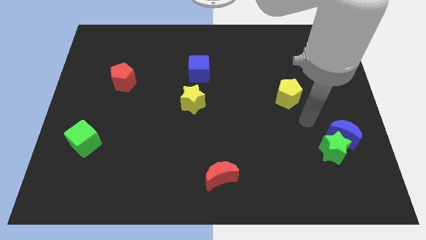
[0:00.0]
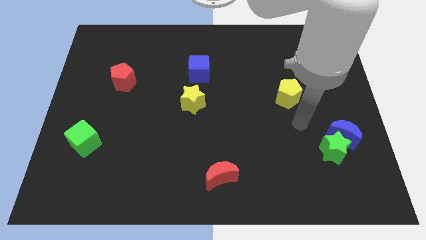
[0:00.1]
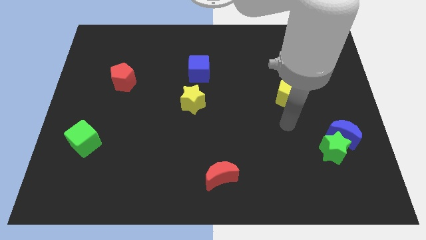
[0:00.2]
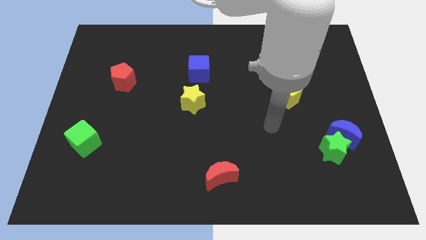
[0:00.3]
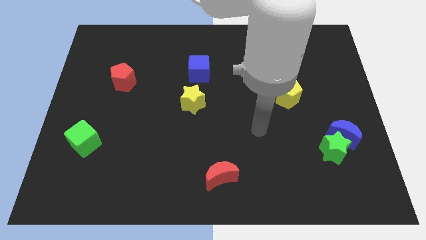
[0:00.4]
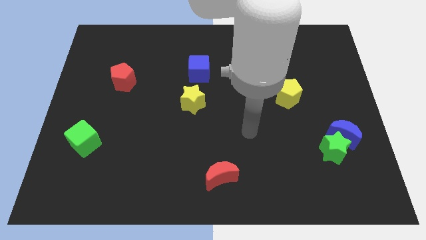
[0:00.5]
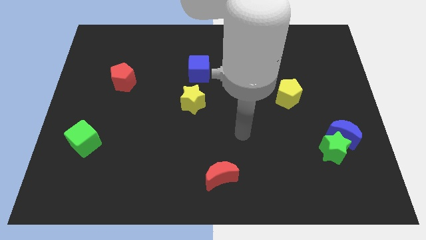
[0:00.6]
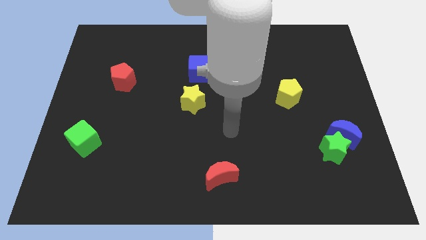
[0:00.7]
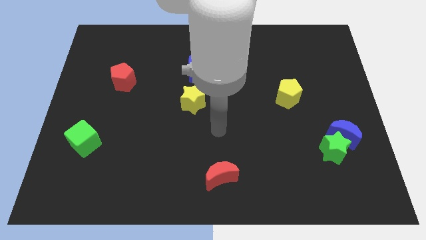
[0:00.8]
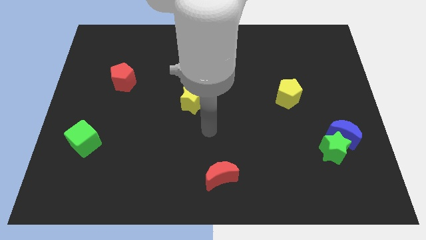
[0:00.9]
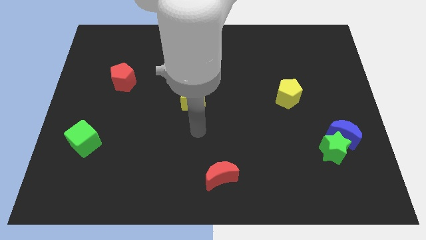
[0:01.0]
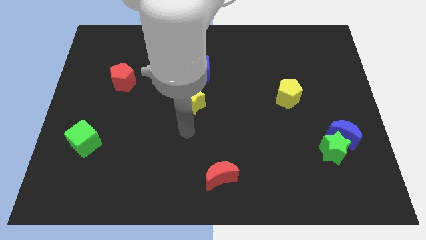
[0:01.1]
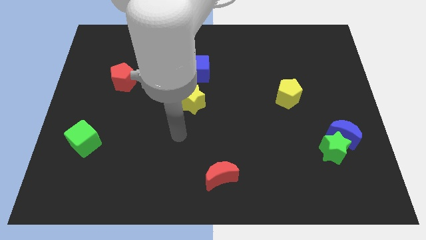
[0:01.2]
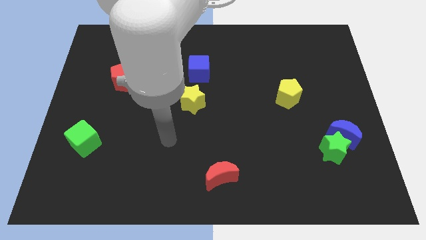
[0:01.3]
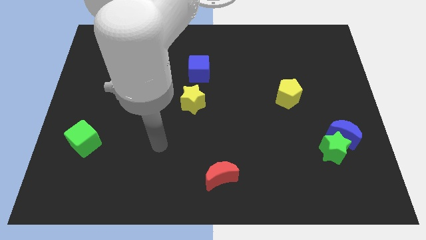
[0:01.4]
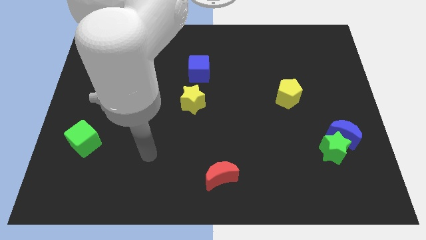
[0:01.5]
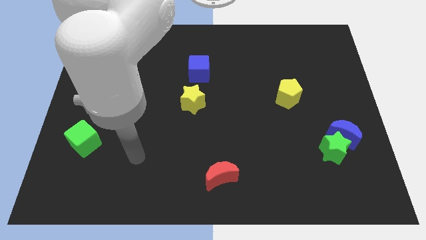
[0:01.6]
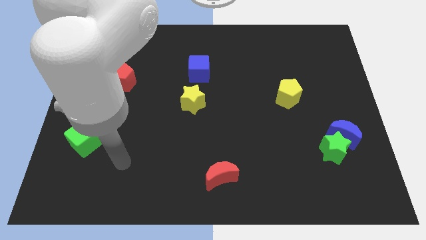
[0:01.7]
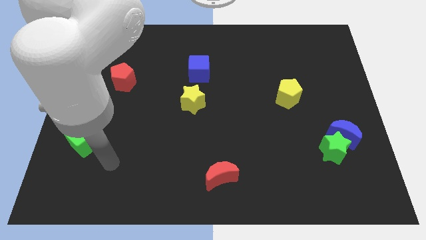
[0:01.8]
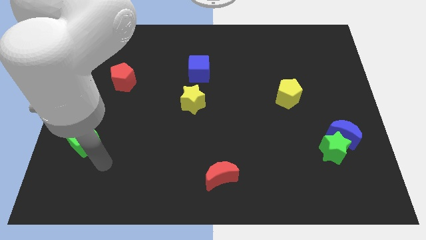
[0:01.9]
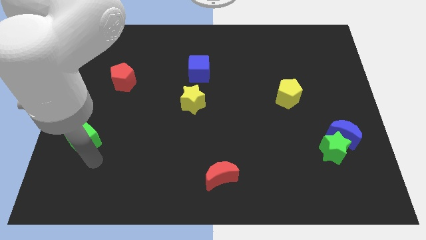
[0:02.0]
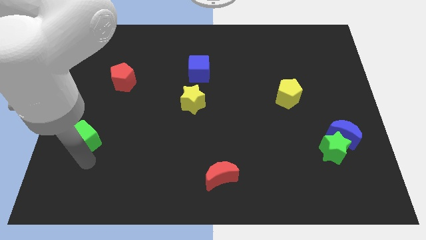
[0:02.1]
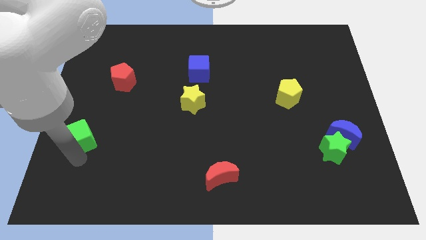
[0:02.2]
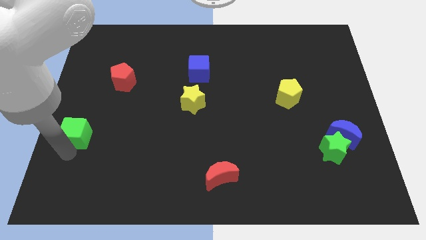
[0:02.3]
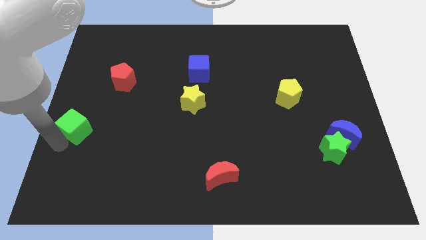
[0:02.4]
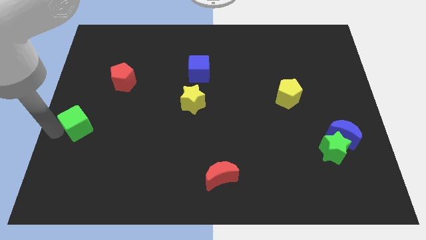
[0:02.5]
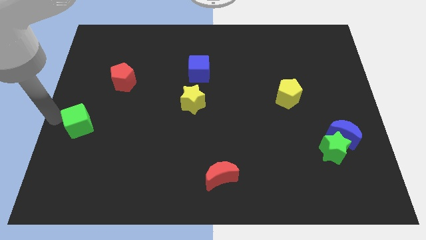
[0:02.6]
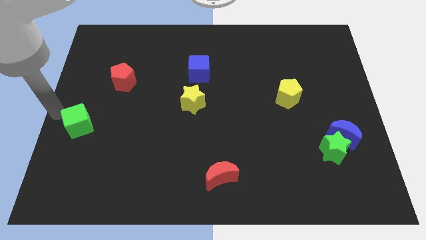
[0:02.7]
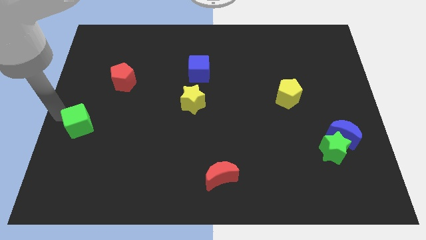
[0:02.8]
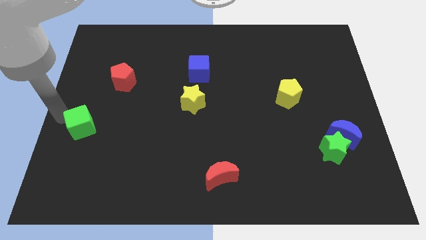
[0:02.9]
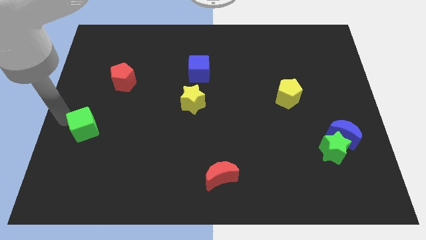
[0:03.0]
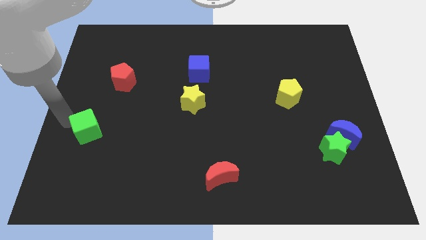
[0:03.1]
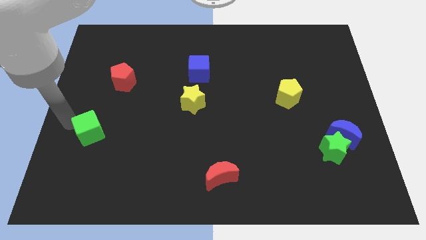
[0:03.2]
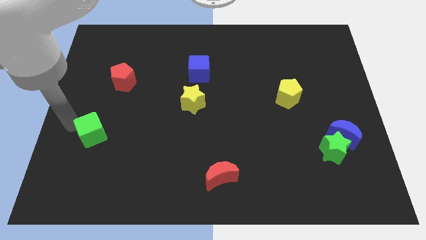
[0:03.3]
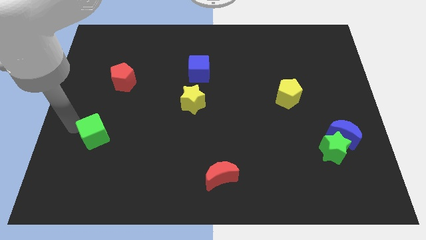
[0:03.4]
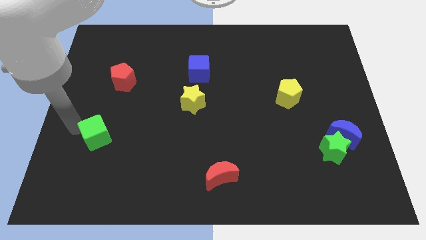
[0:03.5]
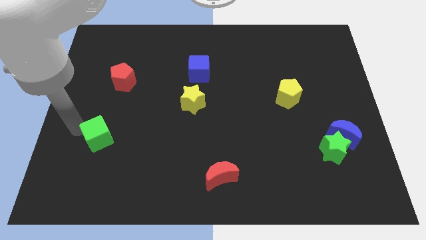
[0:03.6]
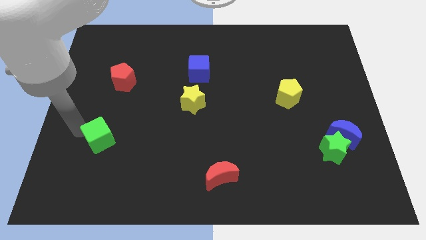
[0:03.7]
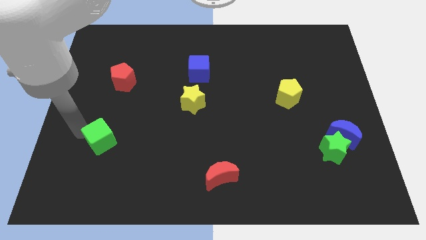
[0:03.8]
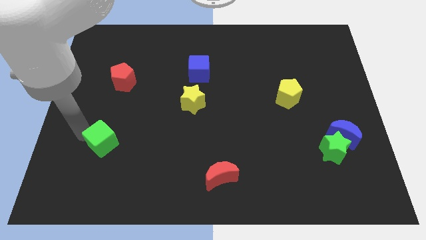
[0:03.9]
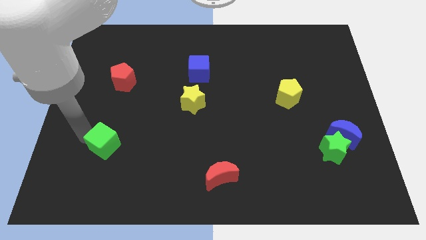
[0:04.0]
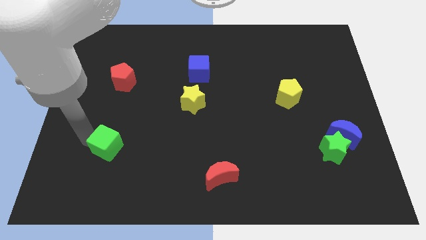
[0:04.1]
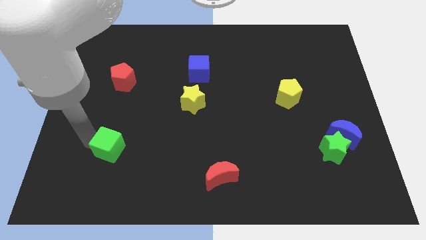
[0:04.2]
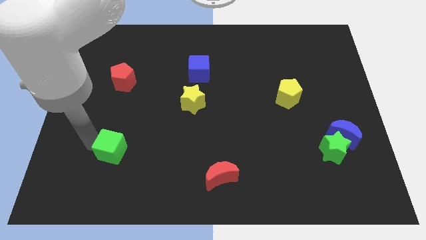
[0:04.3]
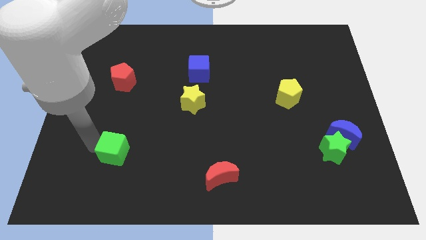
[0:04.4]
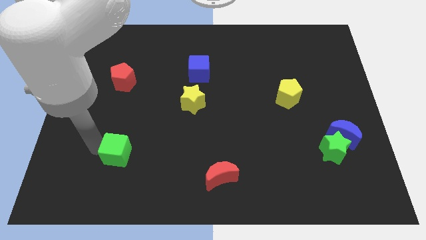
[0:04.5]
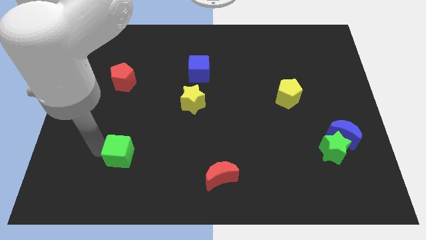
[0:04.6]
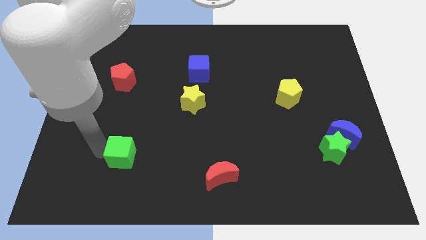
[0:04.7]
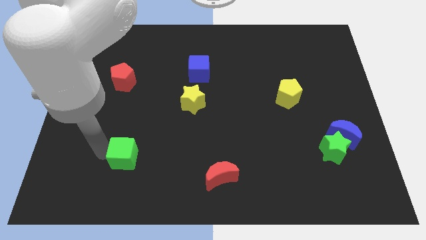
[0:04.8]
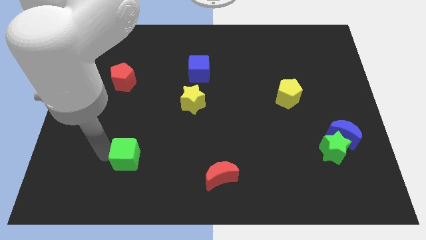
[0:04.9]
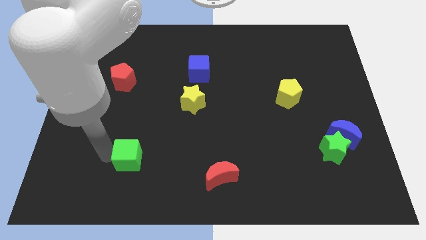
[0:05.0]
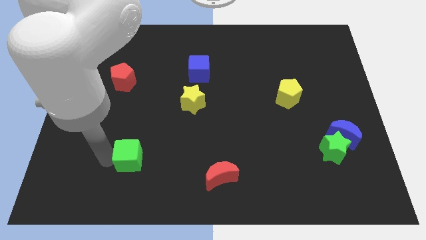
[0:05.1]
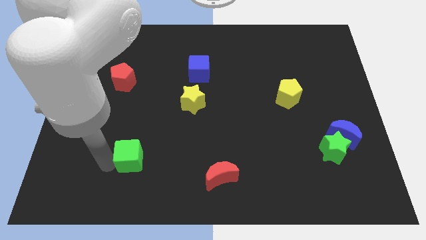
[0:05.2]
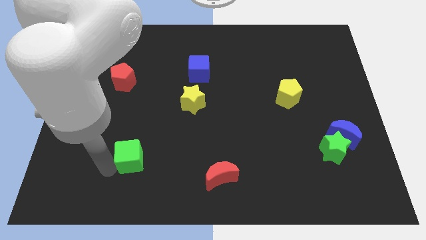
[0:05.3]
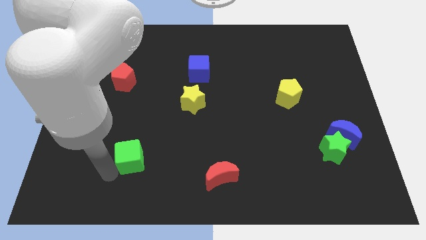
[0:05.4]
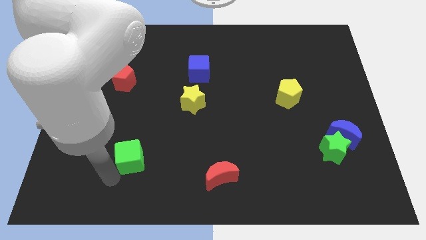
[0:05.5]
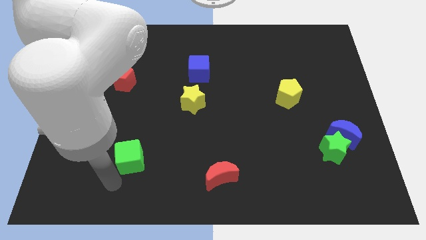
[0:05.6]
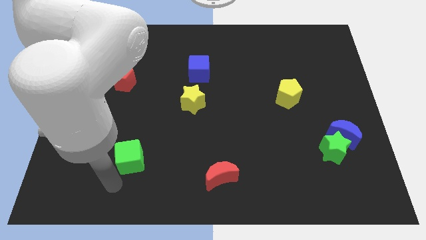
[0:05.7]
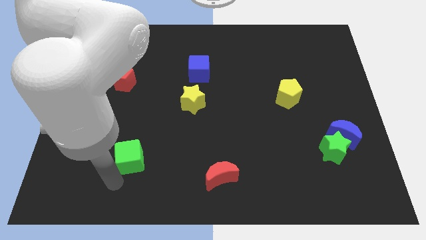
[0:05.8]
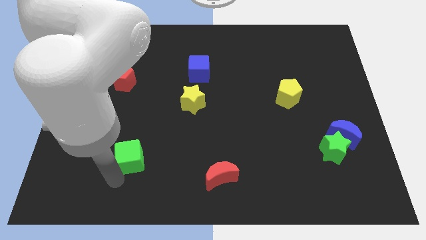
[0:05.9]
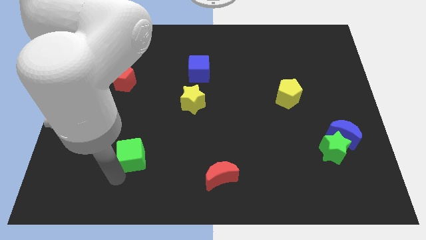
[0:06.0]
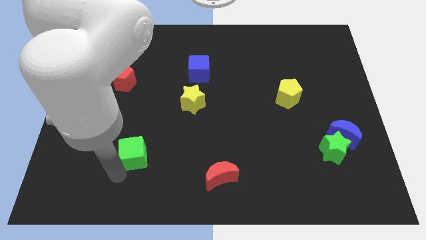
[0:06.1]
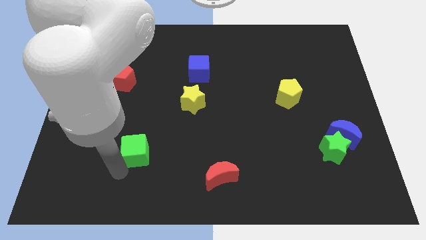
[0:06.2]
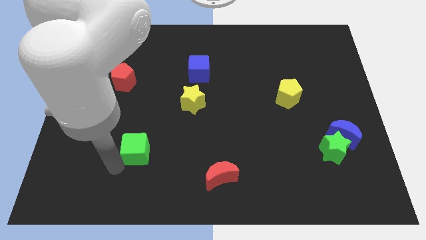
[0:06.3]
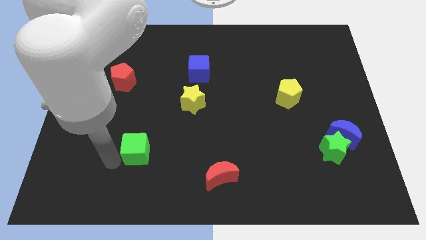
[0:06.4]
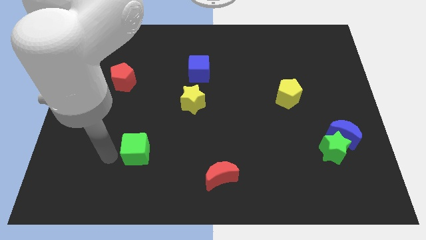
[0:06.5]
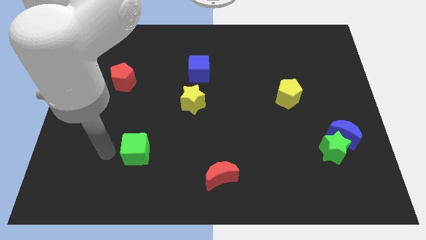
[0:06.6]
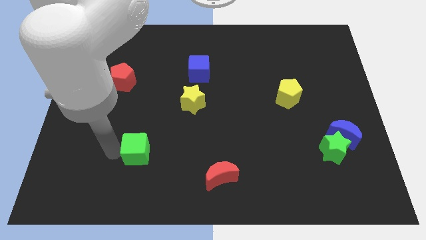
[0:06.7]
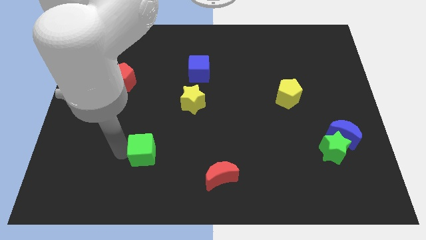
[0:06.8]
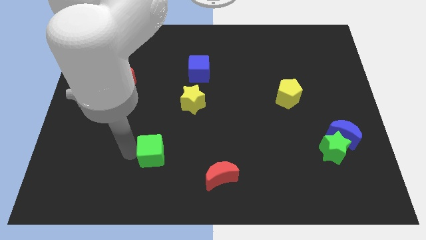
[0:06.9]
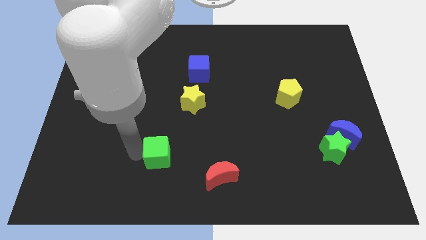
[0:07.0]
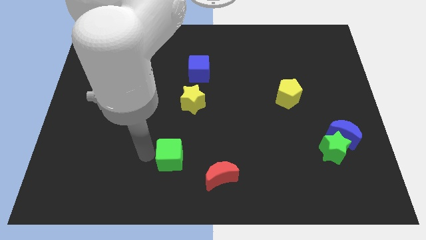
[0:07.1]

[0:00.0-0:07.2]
push the green cube to the top left side of the red moon
